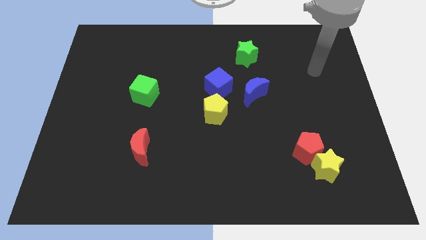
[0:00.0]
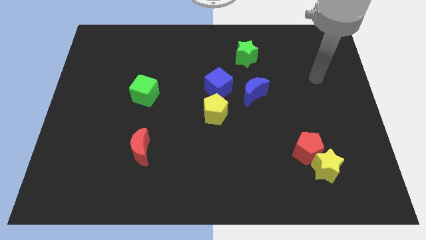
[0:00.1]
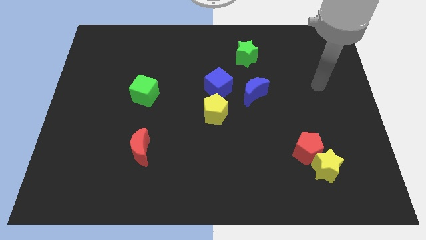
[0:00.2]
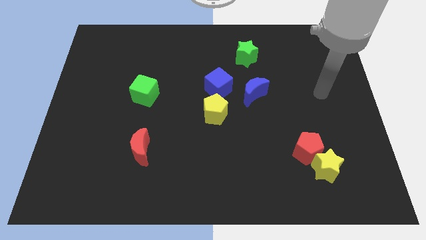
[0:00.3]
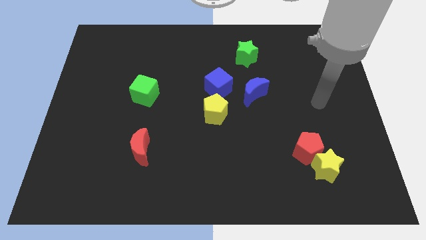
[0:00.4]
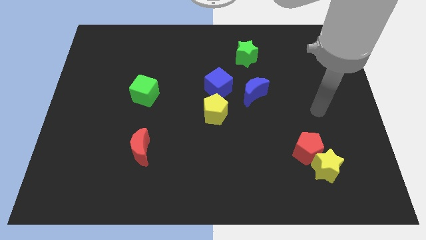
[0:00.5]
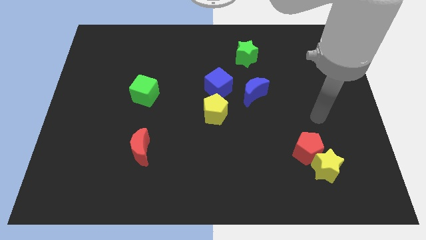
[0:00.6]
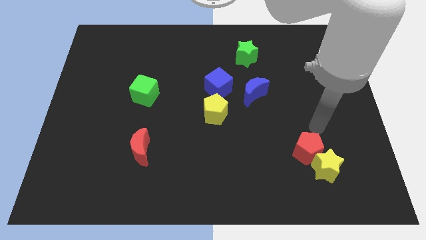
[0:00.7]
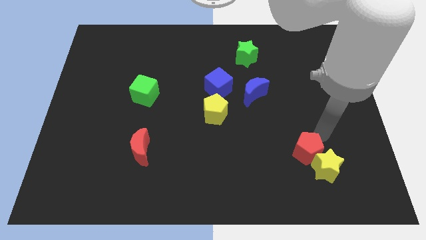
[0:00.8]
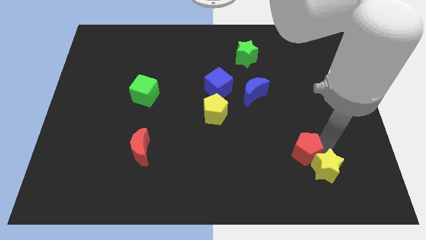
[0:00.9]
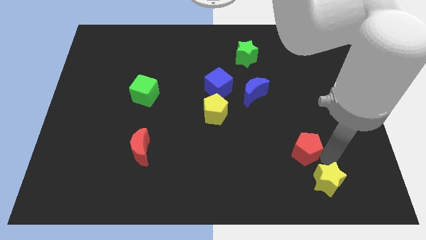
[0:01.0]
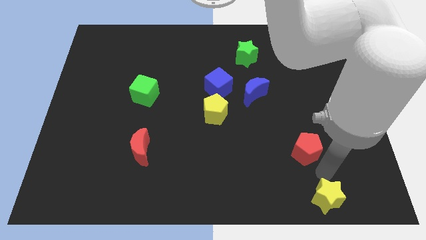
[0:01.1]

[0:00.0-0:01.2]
move the red pentagon away from the yellow star

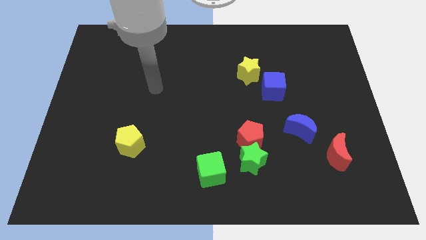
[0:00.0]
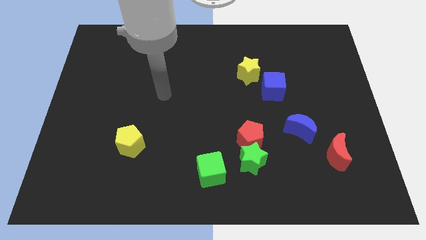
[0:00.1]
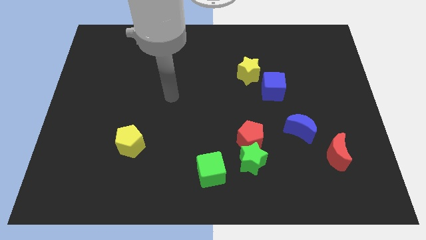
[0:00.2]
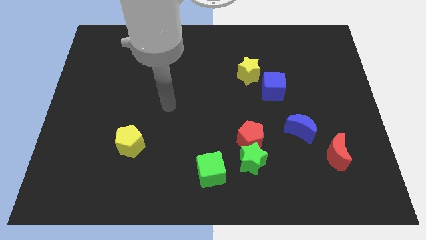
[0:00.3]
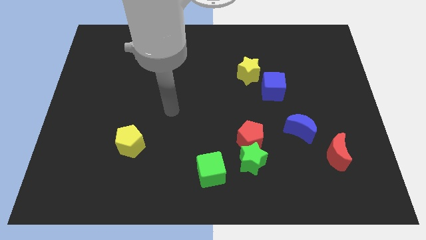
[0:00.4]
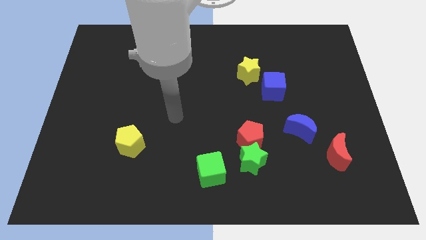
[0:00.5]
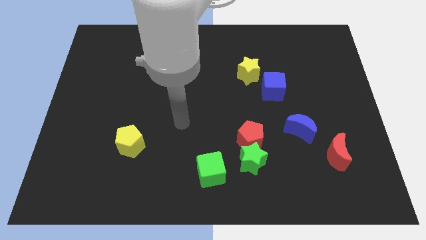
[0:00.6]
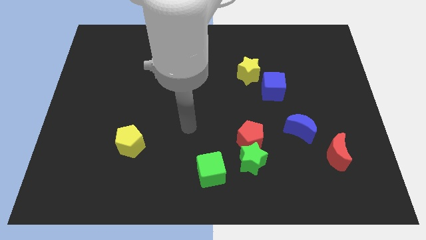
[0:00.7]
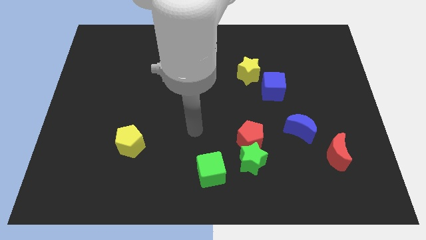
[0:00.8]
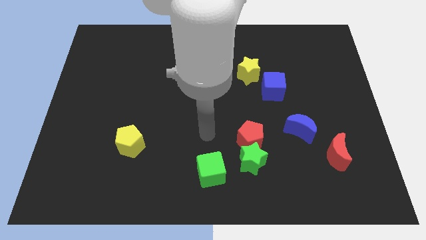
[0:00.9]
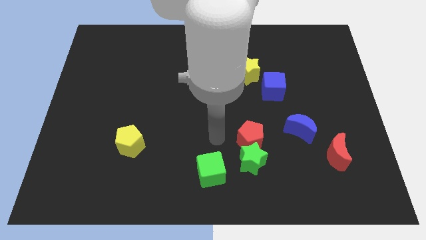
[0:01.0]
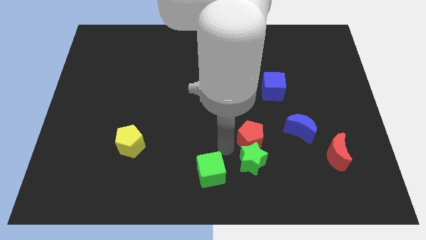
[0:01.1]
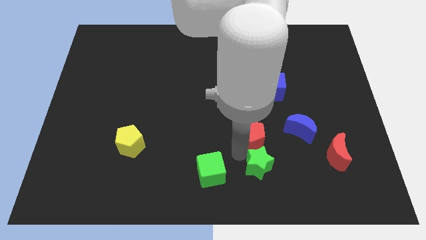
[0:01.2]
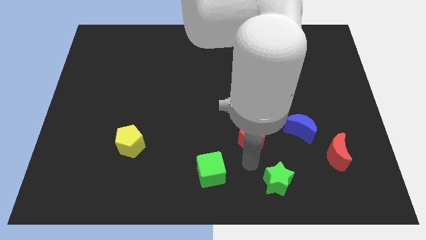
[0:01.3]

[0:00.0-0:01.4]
separate the red pentagon from the green star

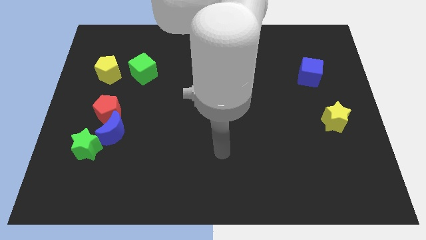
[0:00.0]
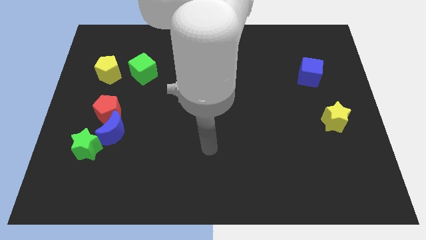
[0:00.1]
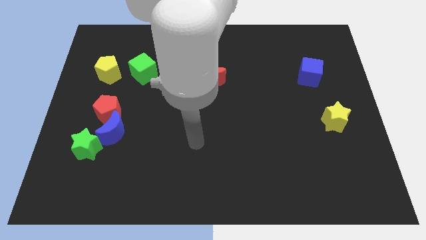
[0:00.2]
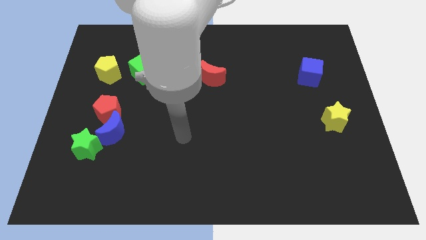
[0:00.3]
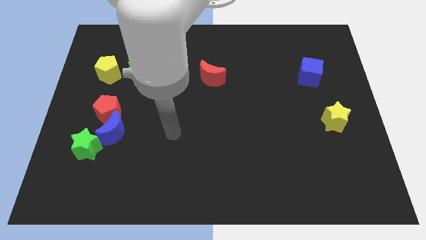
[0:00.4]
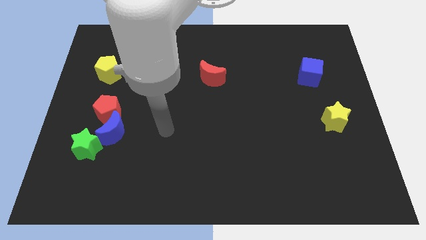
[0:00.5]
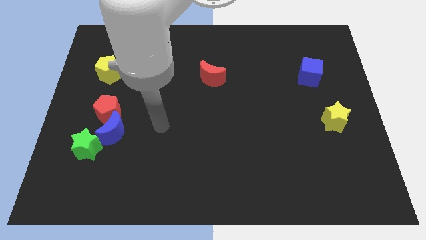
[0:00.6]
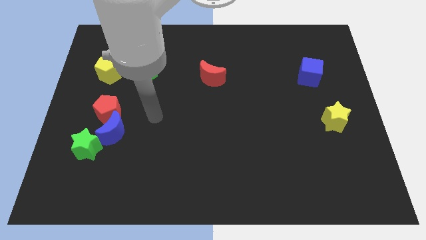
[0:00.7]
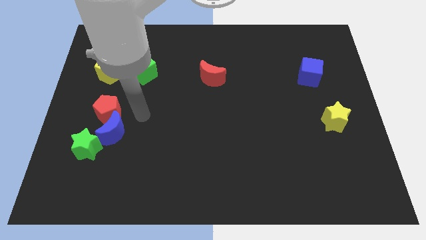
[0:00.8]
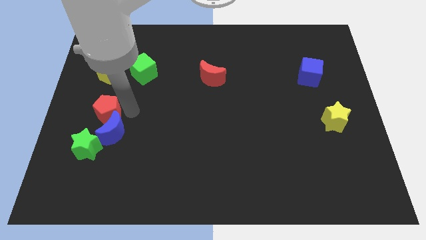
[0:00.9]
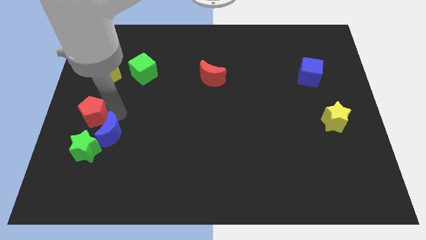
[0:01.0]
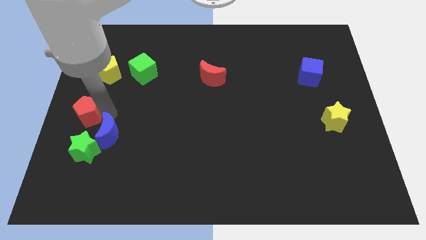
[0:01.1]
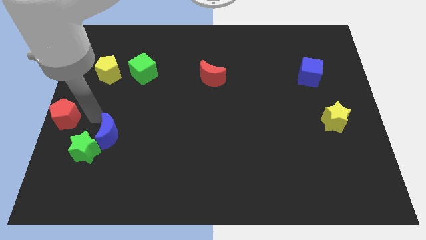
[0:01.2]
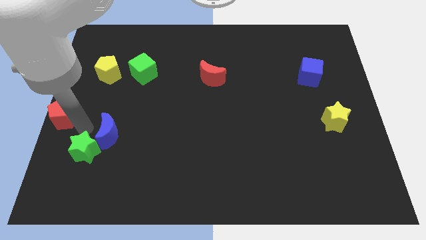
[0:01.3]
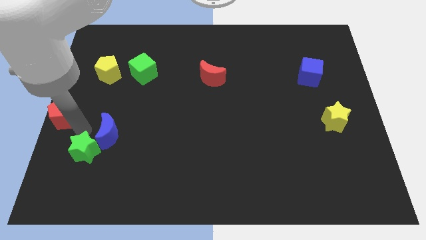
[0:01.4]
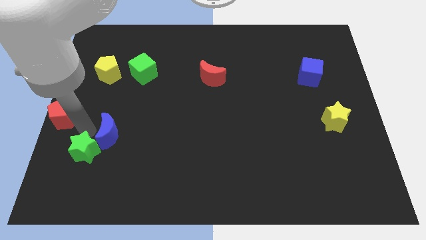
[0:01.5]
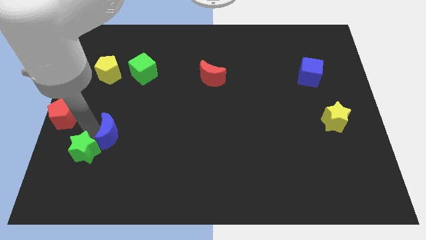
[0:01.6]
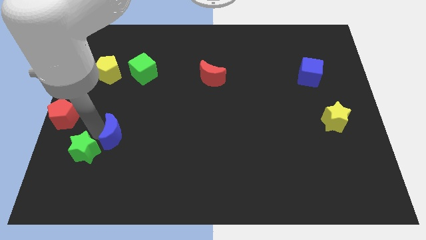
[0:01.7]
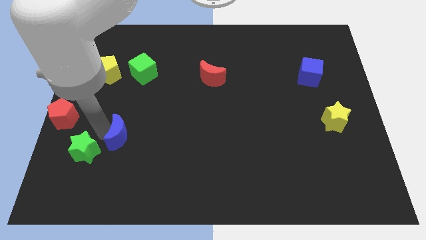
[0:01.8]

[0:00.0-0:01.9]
move the blue moon away from the red pentagon and green star

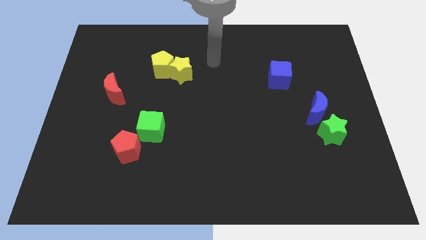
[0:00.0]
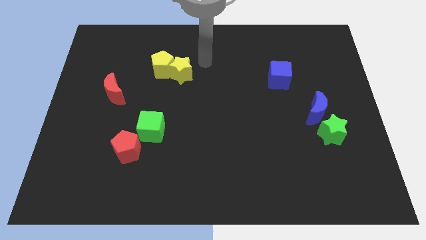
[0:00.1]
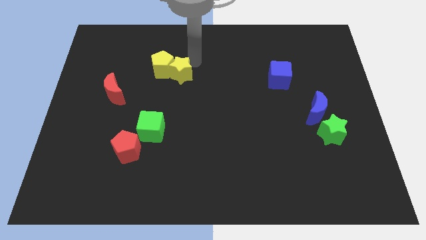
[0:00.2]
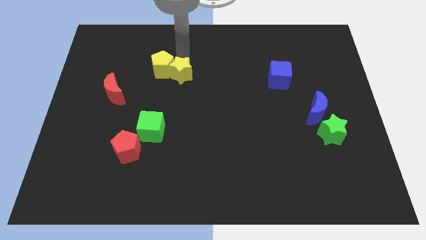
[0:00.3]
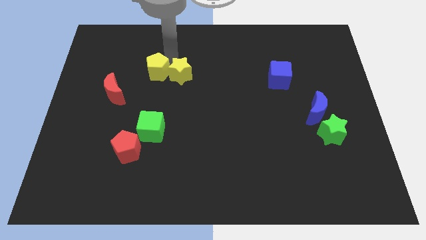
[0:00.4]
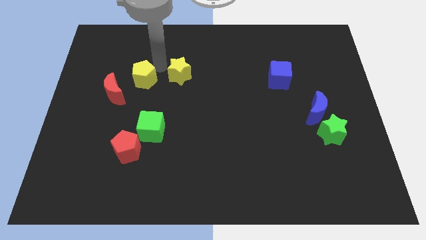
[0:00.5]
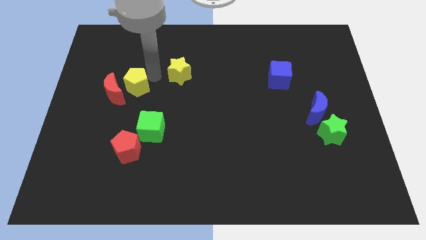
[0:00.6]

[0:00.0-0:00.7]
pull the yellow star apart from the yellow pentagon

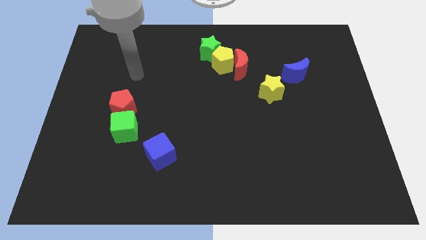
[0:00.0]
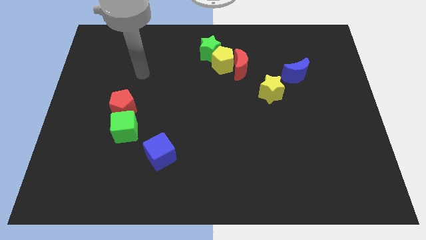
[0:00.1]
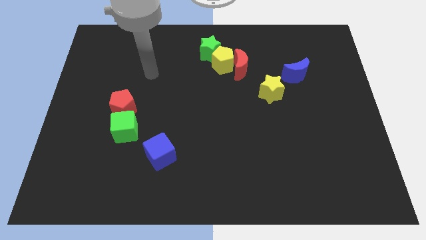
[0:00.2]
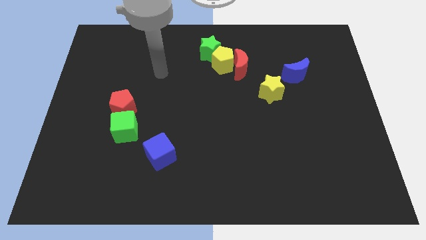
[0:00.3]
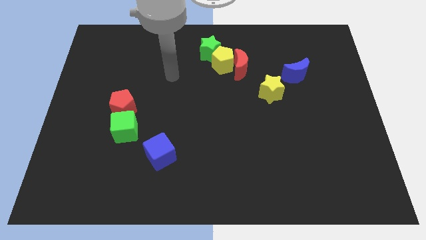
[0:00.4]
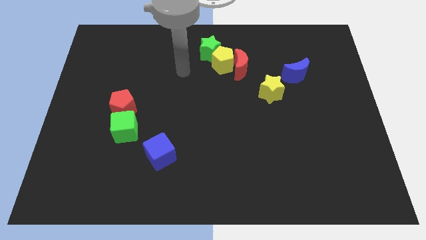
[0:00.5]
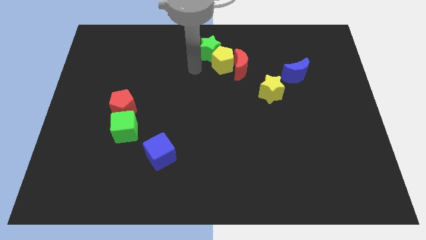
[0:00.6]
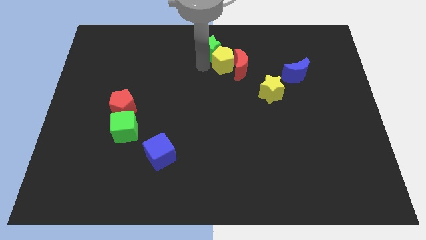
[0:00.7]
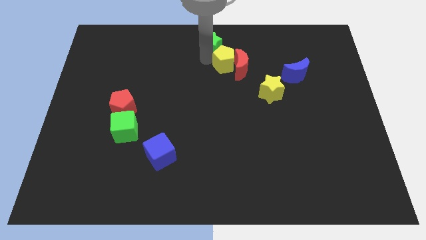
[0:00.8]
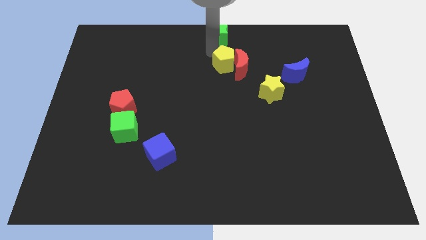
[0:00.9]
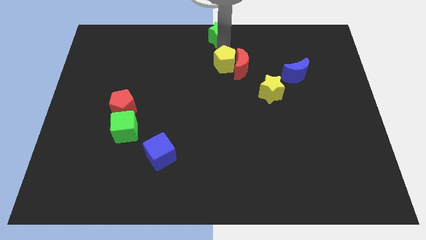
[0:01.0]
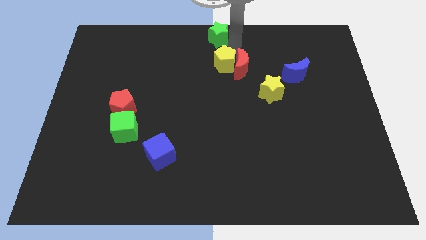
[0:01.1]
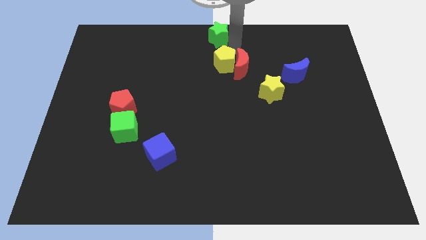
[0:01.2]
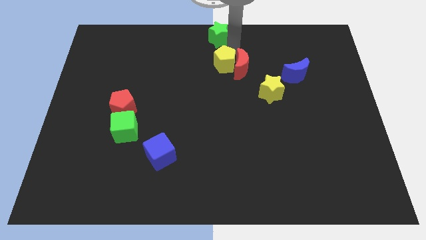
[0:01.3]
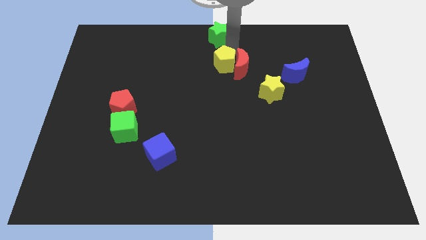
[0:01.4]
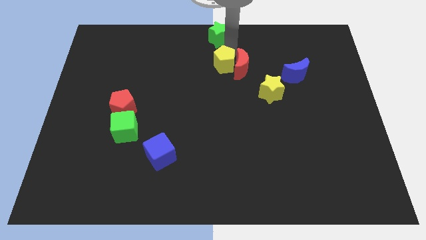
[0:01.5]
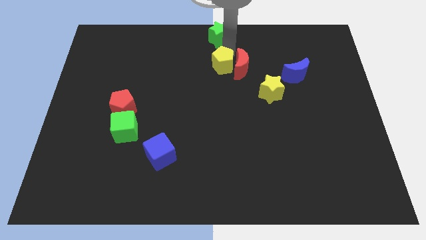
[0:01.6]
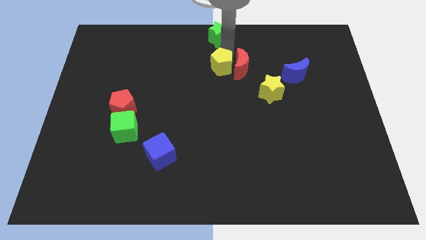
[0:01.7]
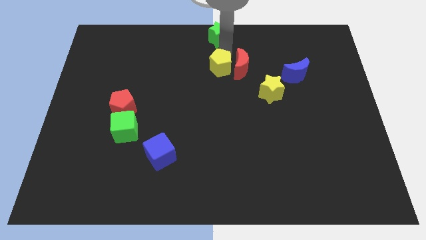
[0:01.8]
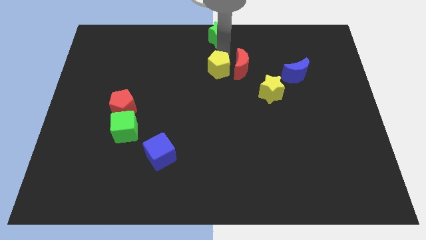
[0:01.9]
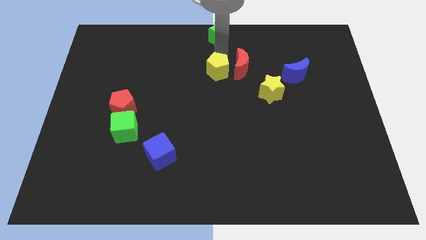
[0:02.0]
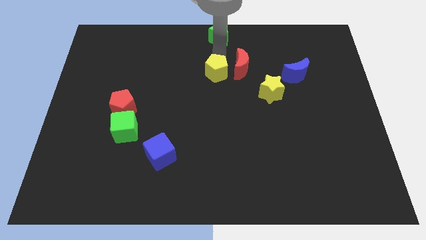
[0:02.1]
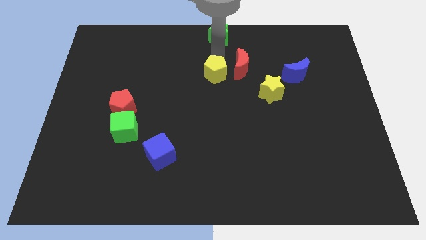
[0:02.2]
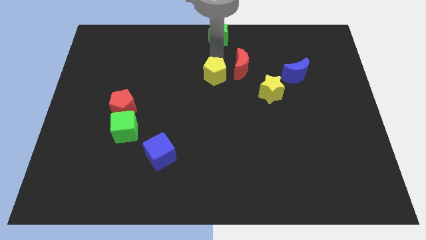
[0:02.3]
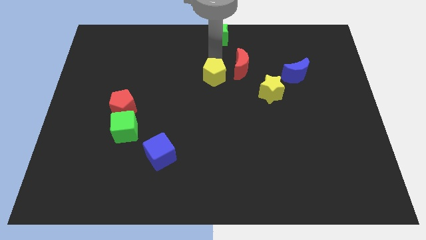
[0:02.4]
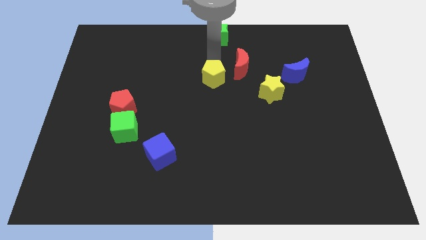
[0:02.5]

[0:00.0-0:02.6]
move the yellow pentagon away from the red moon and green star

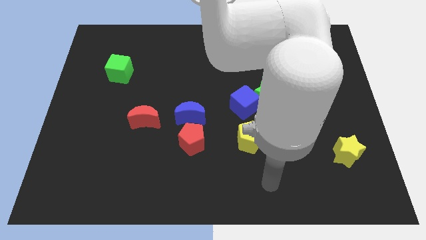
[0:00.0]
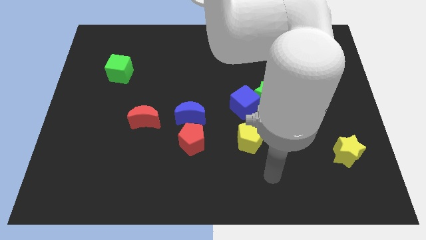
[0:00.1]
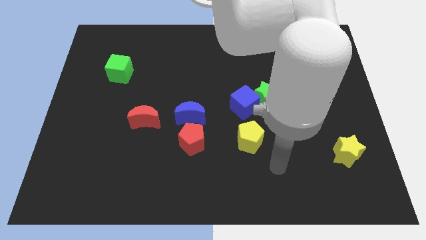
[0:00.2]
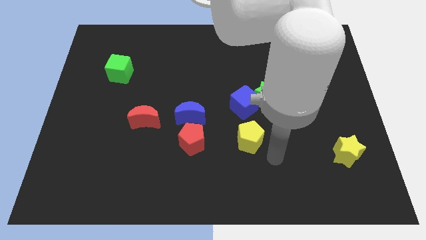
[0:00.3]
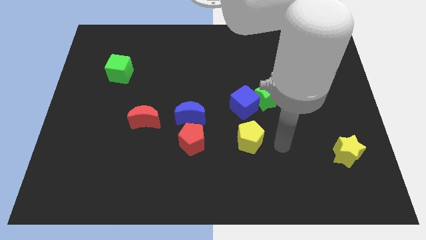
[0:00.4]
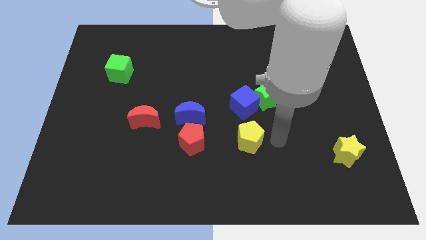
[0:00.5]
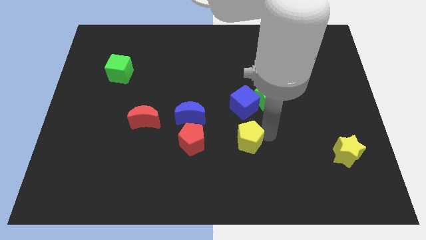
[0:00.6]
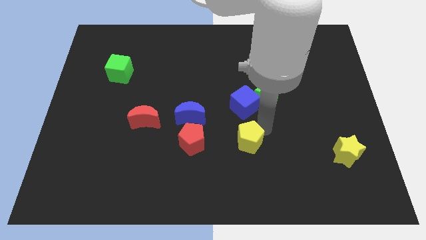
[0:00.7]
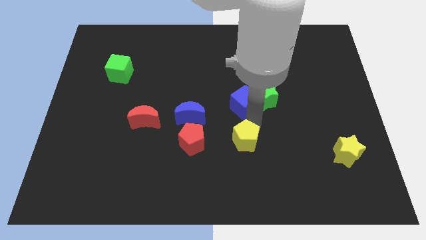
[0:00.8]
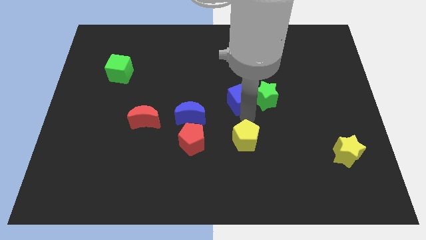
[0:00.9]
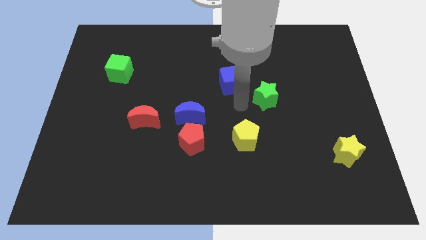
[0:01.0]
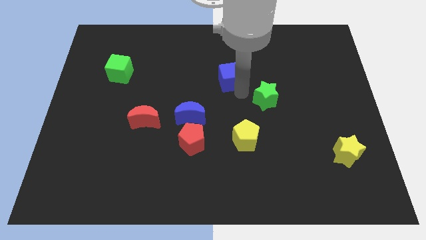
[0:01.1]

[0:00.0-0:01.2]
move the green star away from the blue cube
